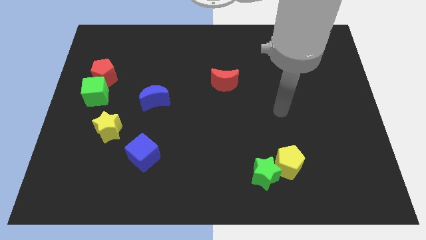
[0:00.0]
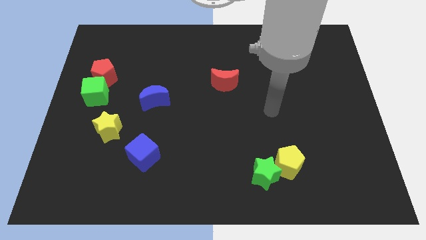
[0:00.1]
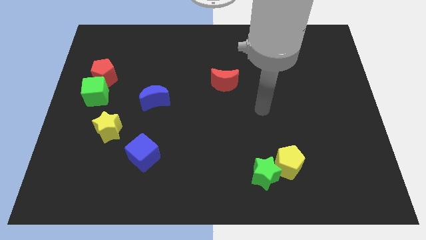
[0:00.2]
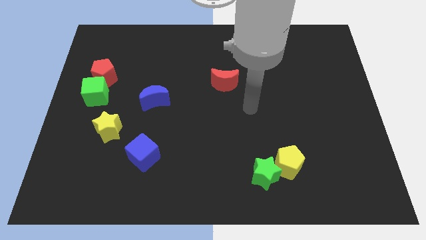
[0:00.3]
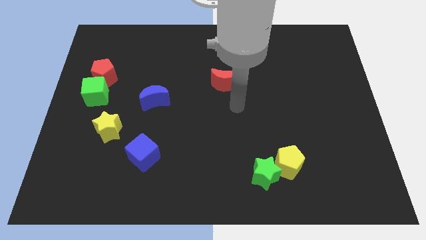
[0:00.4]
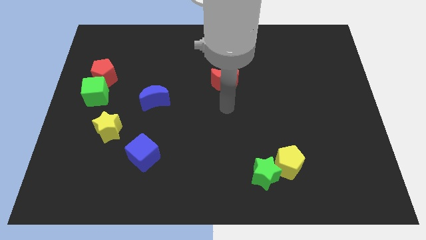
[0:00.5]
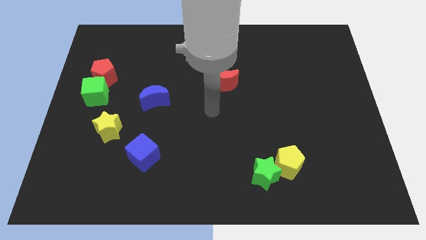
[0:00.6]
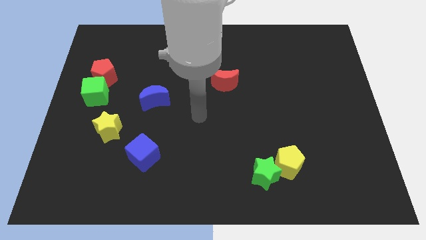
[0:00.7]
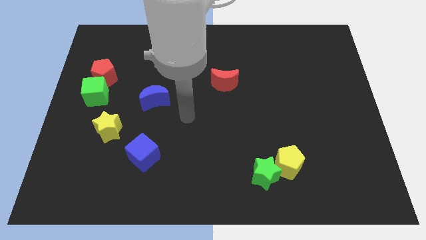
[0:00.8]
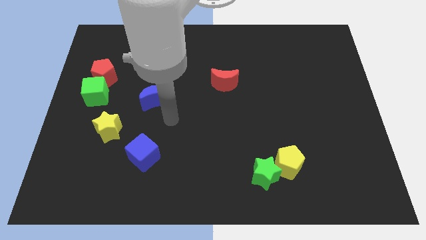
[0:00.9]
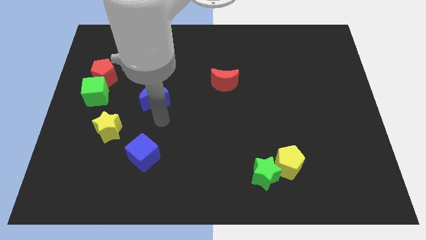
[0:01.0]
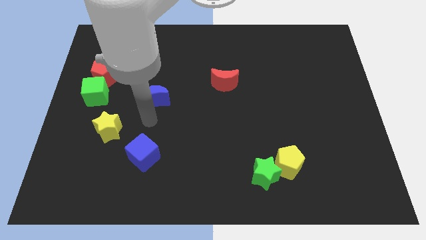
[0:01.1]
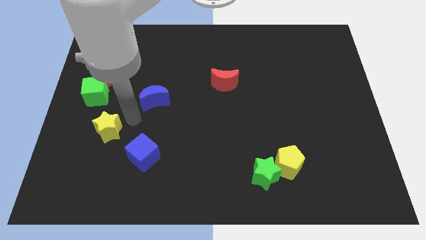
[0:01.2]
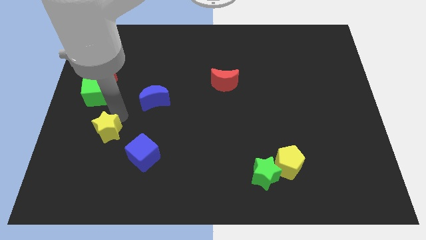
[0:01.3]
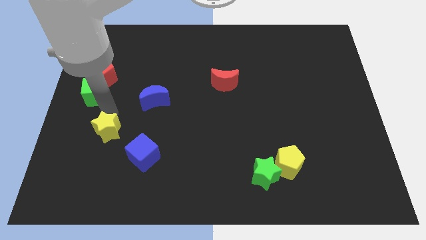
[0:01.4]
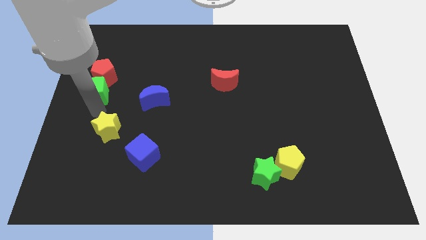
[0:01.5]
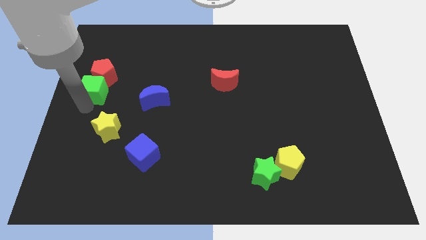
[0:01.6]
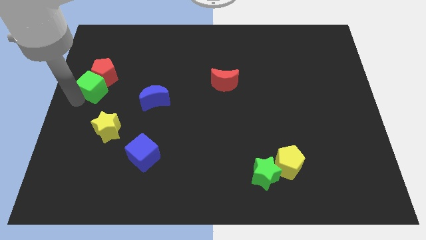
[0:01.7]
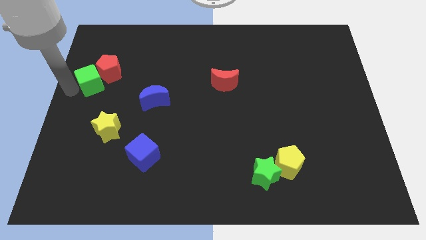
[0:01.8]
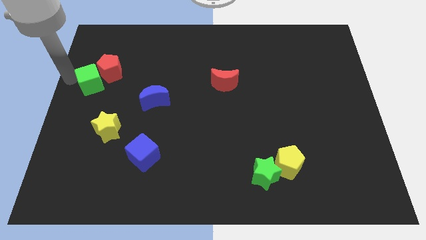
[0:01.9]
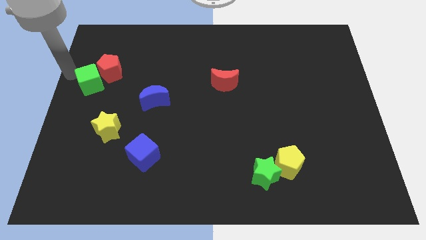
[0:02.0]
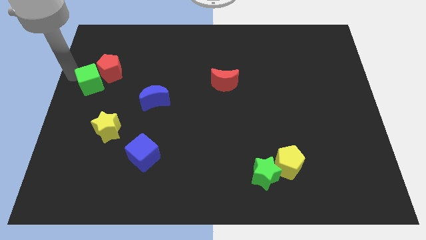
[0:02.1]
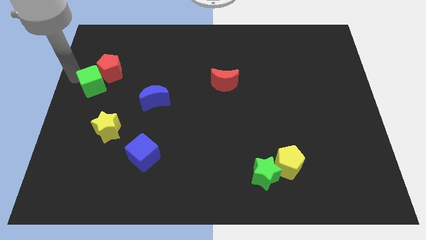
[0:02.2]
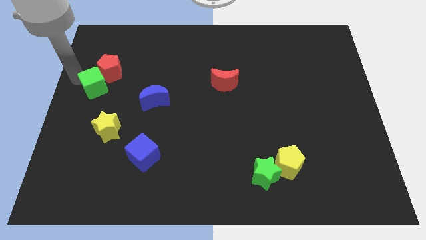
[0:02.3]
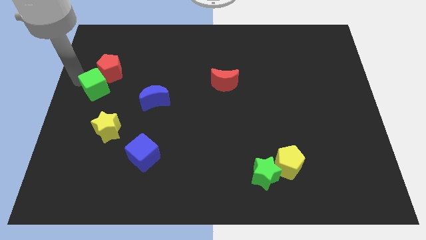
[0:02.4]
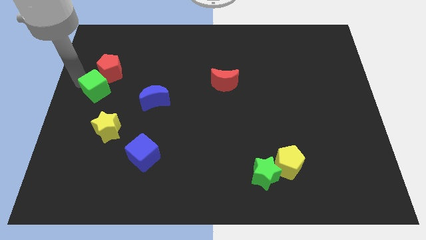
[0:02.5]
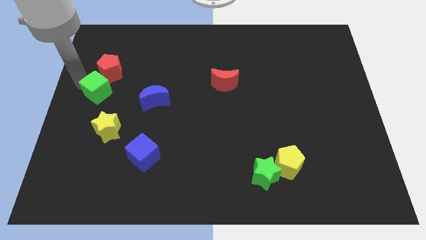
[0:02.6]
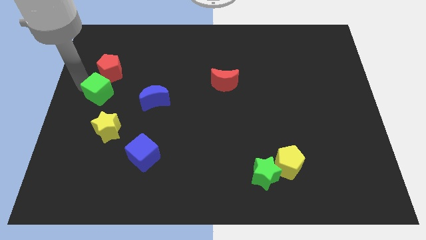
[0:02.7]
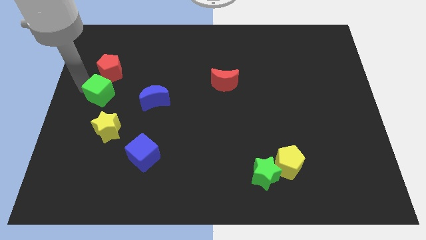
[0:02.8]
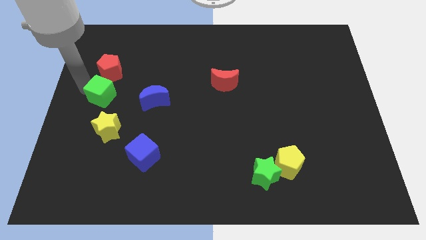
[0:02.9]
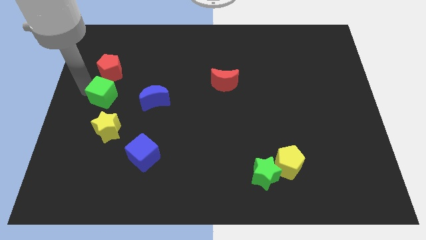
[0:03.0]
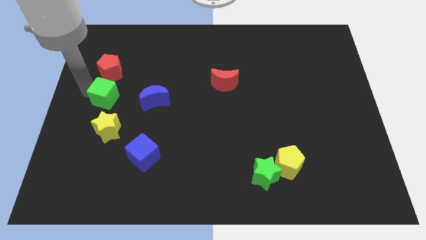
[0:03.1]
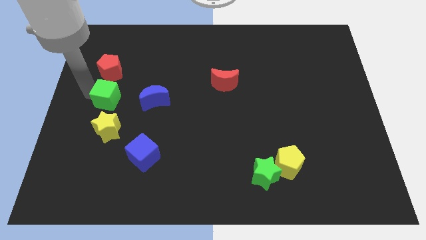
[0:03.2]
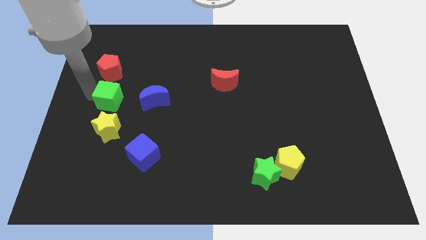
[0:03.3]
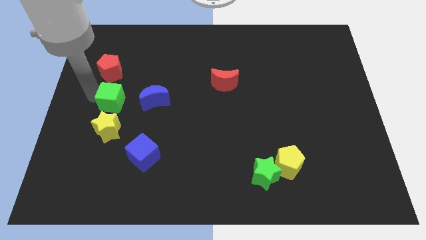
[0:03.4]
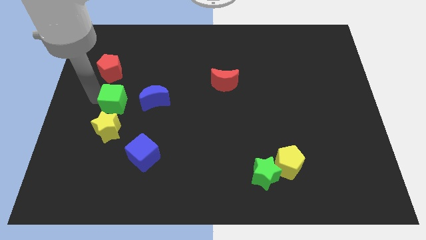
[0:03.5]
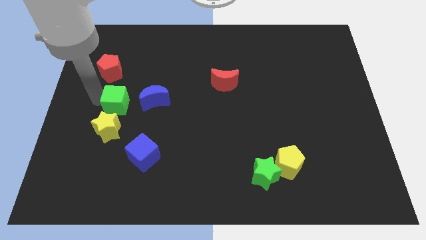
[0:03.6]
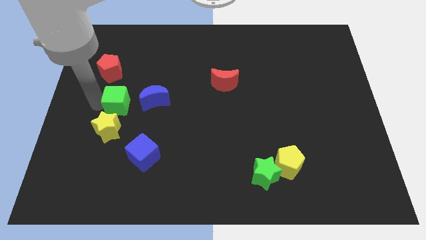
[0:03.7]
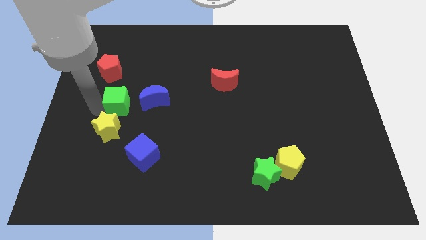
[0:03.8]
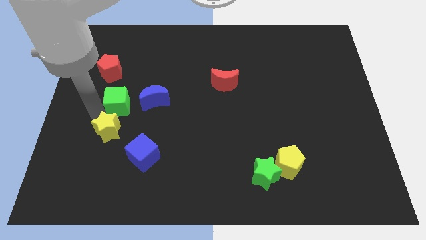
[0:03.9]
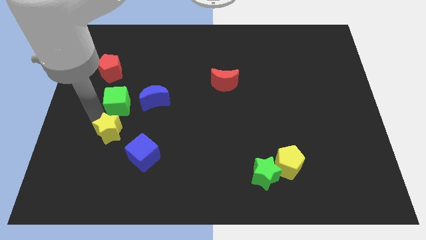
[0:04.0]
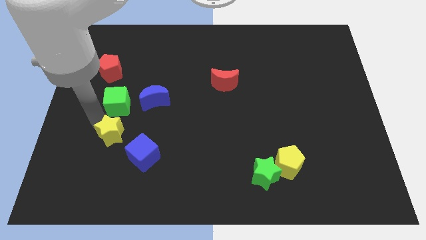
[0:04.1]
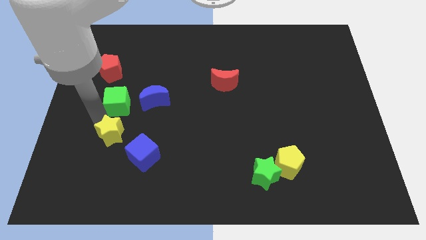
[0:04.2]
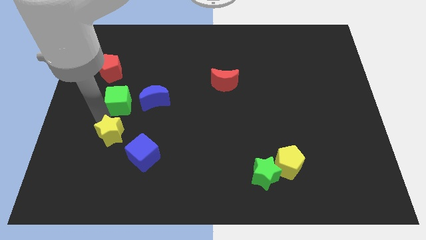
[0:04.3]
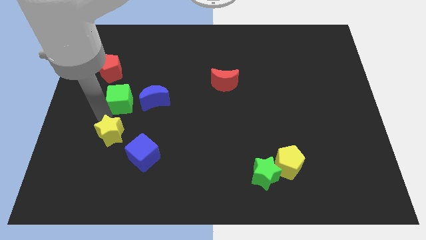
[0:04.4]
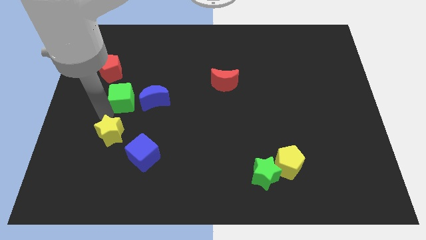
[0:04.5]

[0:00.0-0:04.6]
slide the green cube a bit to the right

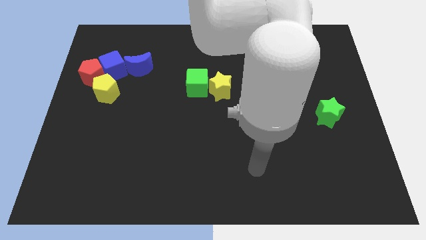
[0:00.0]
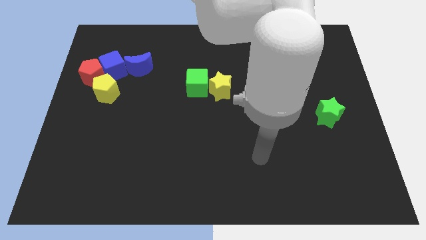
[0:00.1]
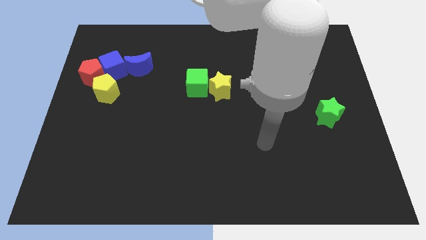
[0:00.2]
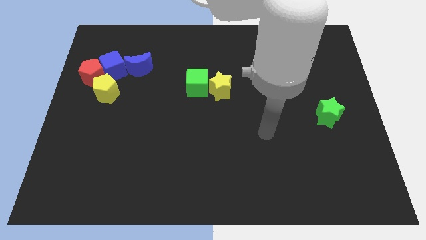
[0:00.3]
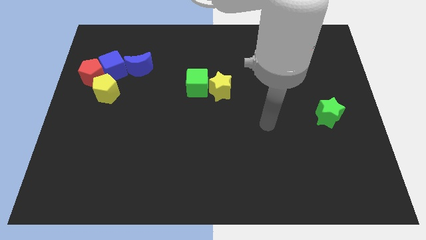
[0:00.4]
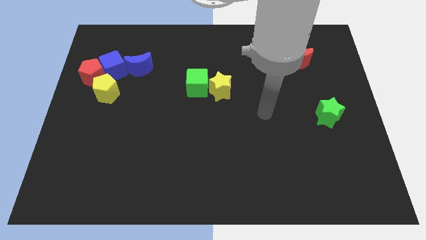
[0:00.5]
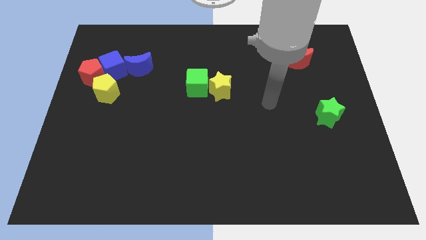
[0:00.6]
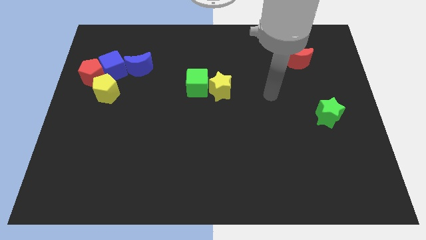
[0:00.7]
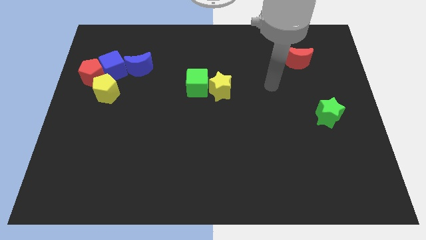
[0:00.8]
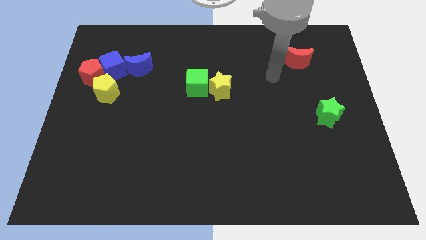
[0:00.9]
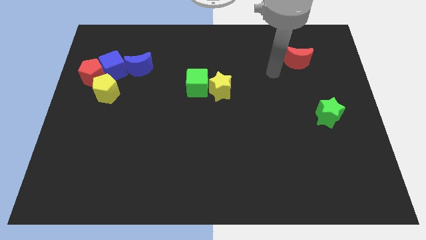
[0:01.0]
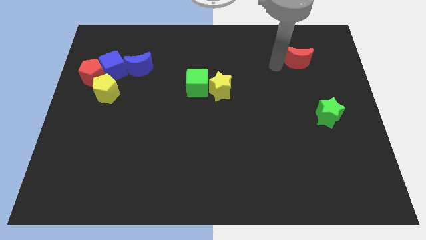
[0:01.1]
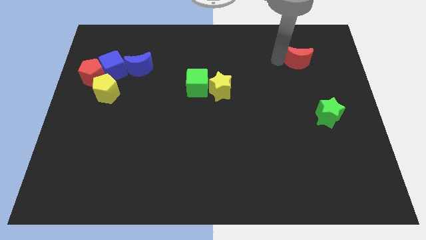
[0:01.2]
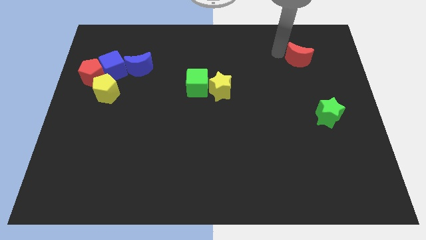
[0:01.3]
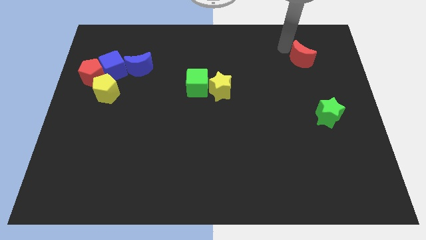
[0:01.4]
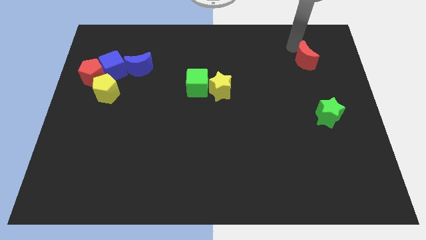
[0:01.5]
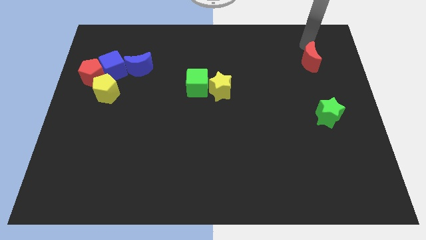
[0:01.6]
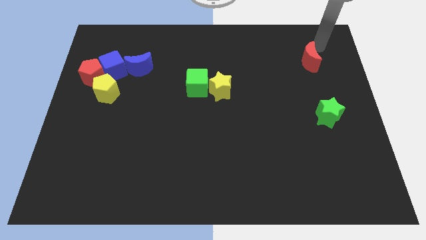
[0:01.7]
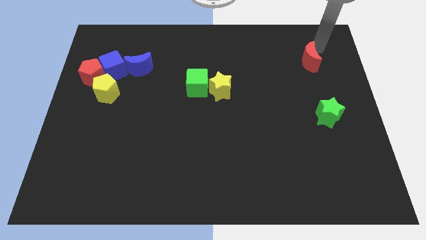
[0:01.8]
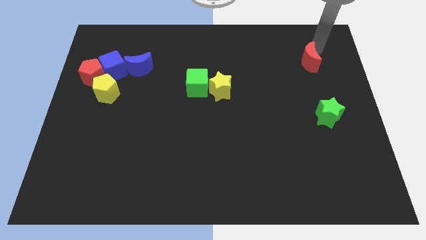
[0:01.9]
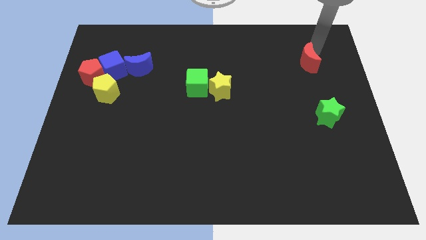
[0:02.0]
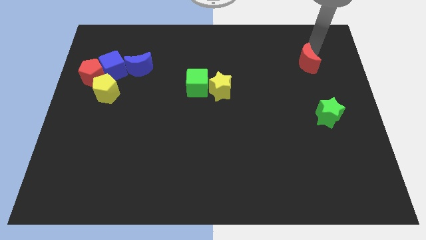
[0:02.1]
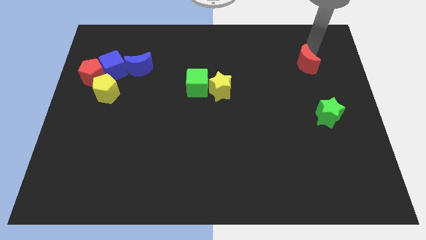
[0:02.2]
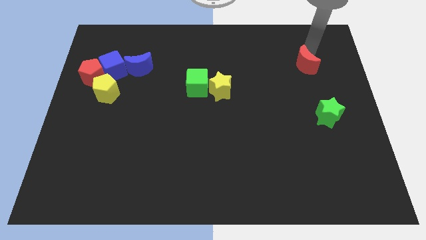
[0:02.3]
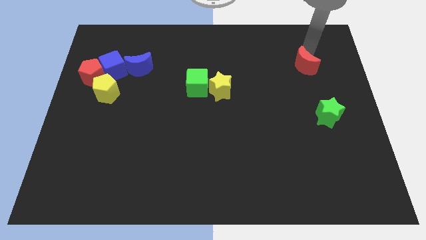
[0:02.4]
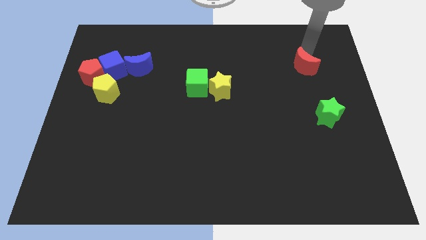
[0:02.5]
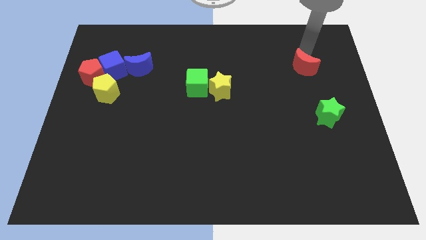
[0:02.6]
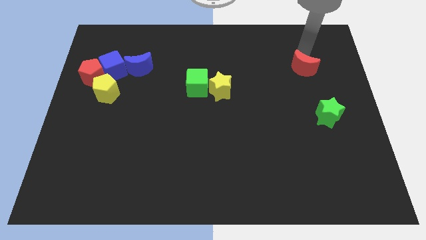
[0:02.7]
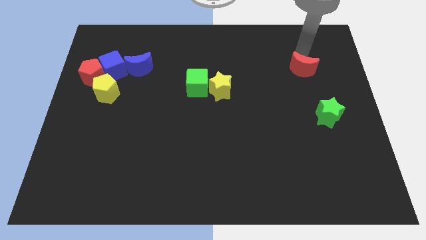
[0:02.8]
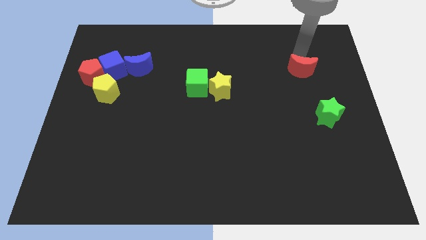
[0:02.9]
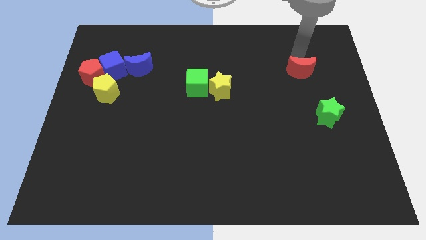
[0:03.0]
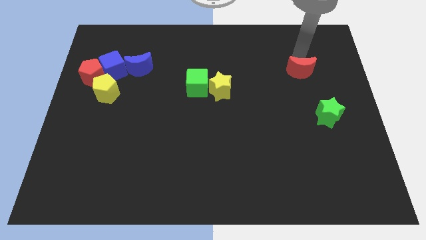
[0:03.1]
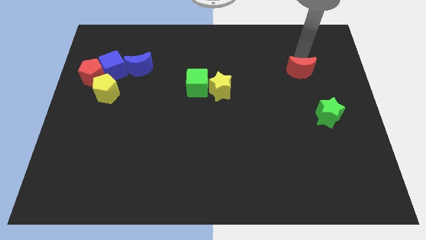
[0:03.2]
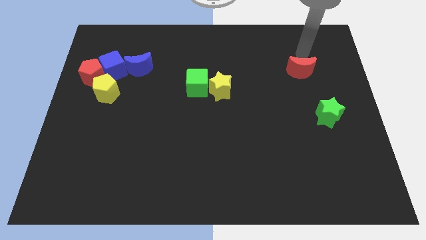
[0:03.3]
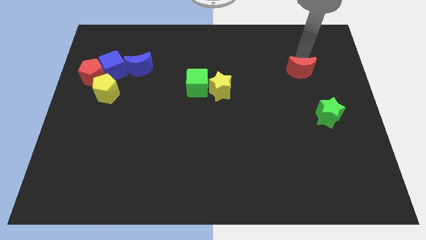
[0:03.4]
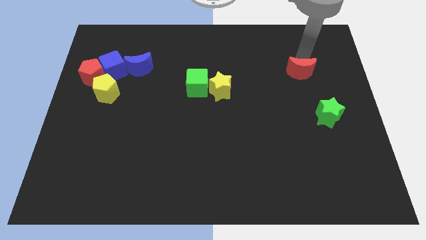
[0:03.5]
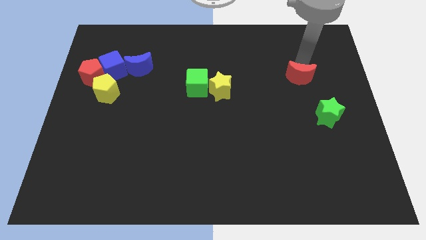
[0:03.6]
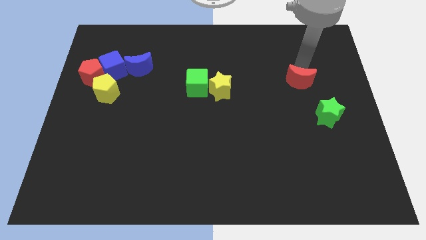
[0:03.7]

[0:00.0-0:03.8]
push the red moon downwards a bit
